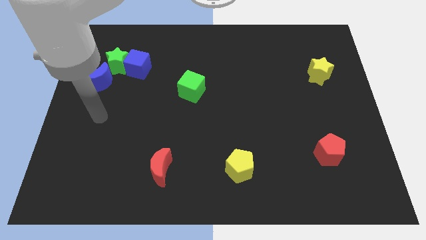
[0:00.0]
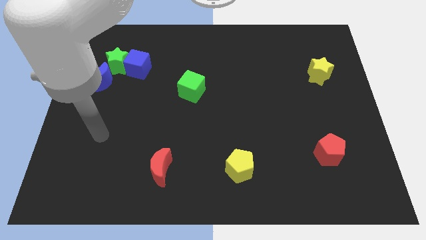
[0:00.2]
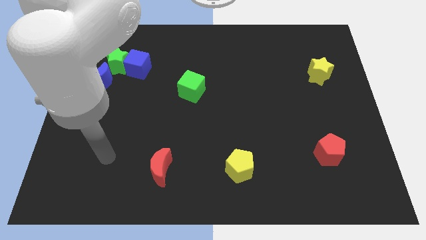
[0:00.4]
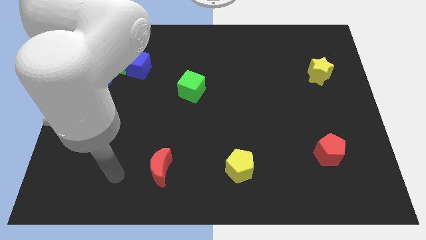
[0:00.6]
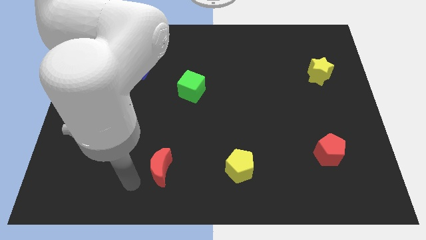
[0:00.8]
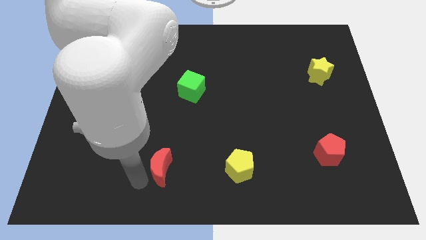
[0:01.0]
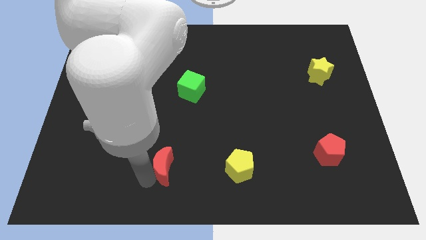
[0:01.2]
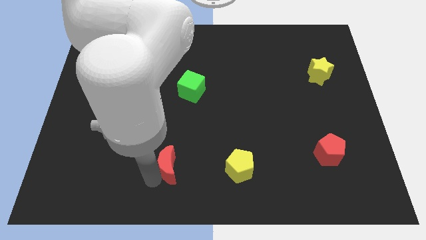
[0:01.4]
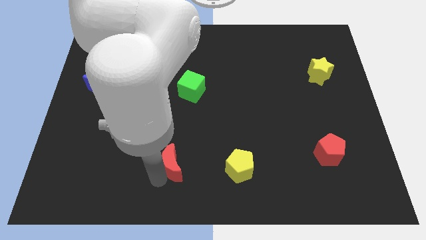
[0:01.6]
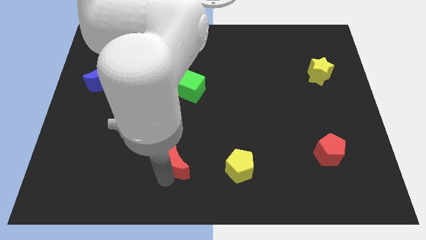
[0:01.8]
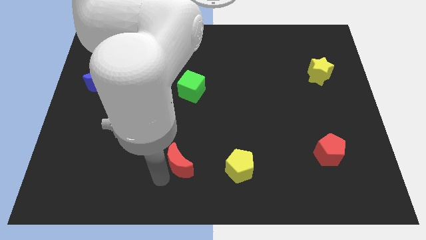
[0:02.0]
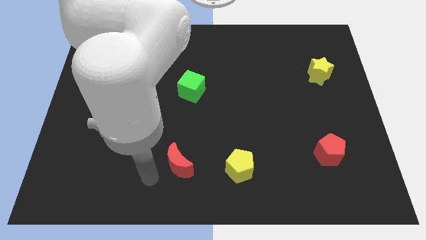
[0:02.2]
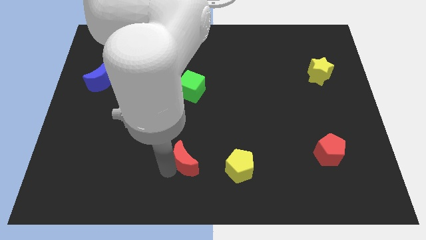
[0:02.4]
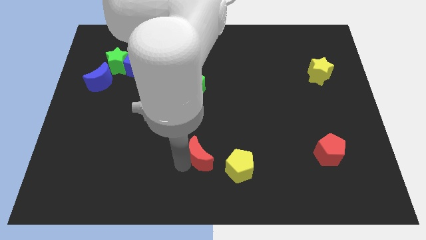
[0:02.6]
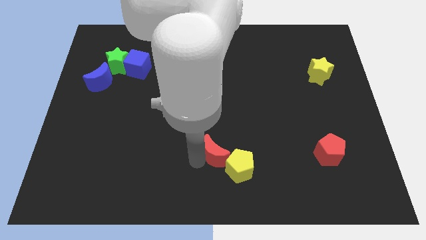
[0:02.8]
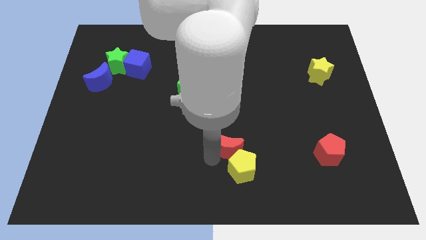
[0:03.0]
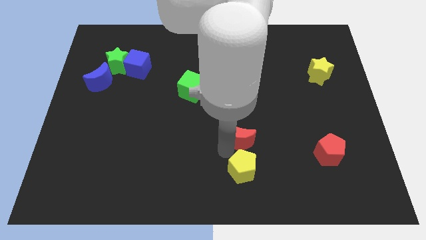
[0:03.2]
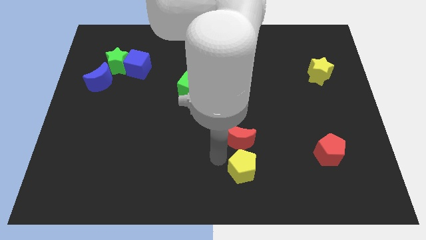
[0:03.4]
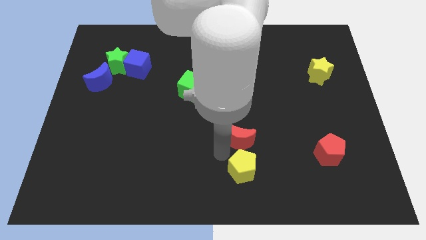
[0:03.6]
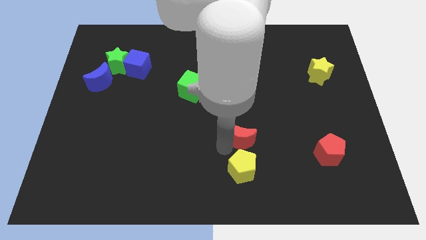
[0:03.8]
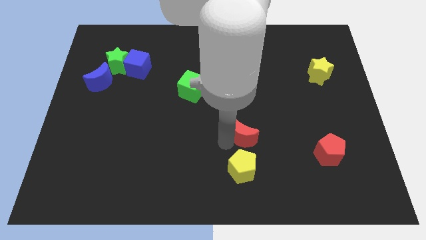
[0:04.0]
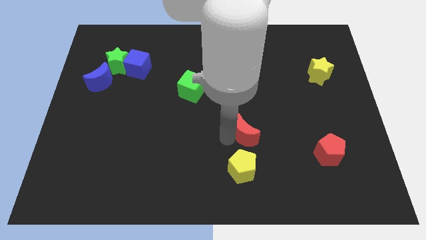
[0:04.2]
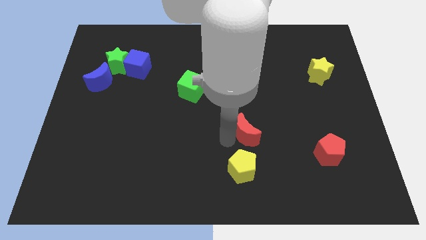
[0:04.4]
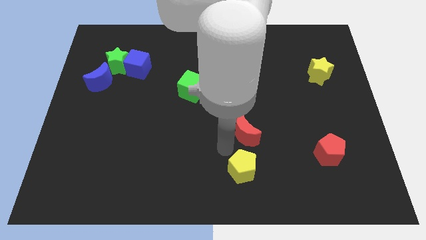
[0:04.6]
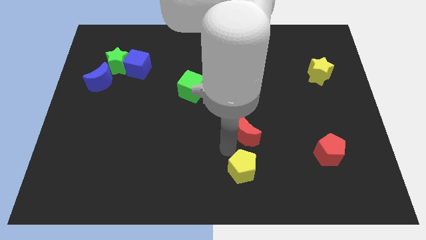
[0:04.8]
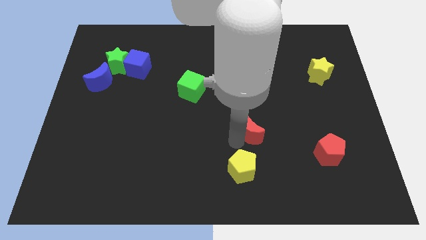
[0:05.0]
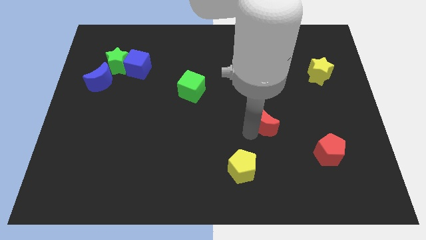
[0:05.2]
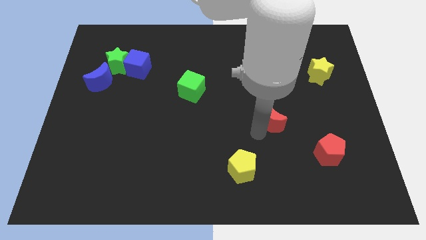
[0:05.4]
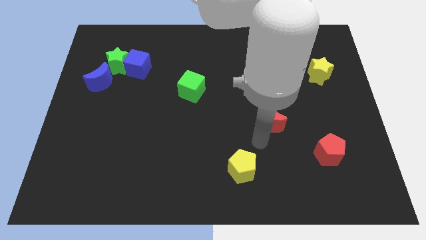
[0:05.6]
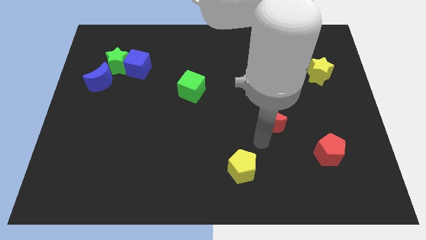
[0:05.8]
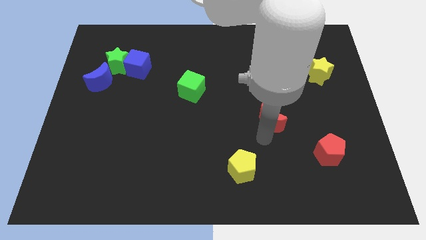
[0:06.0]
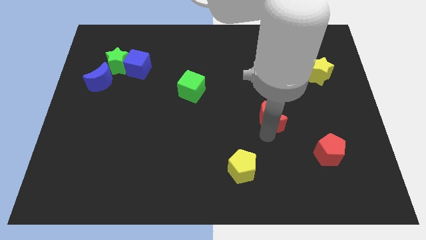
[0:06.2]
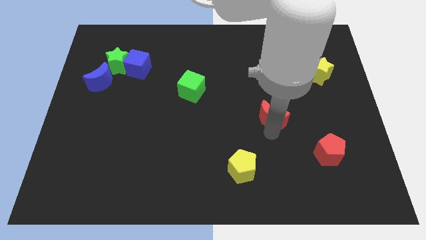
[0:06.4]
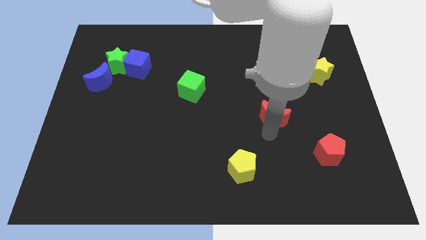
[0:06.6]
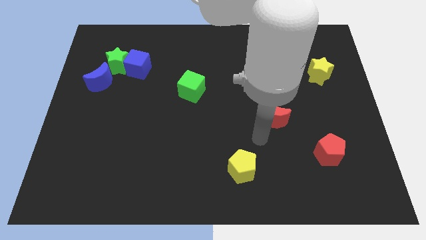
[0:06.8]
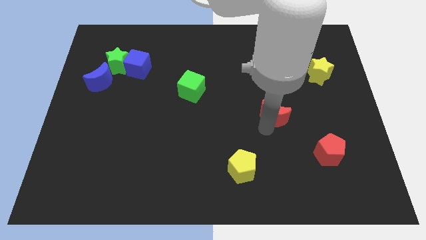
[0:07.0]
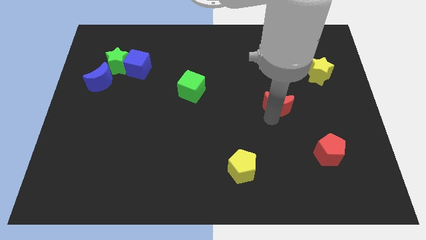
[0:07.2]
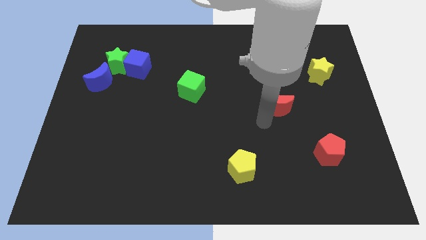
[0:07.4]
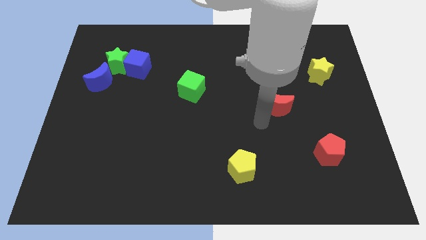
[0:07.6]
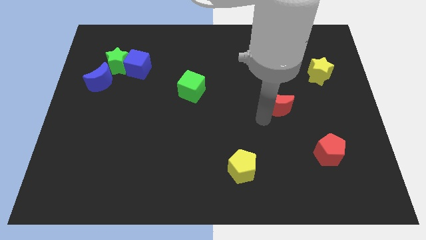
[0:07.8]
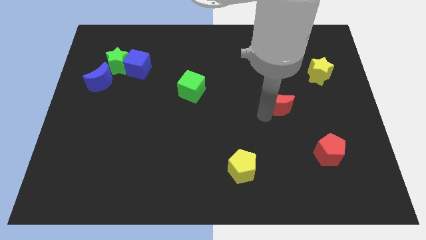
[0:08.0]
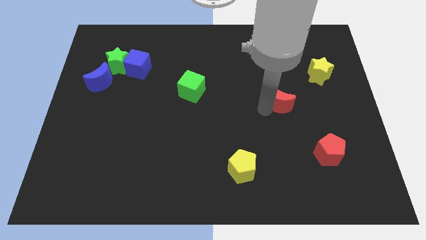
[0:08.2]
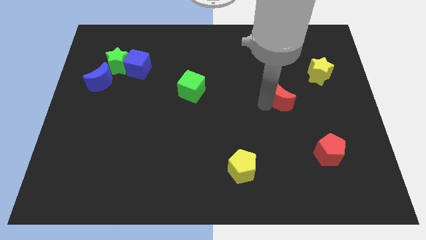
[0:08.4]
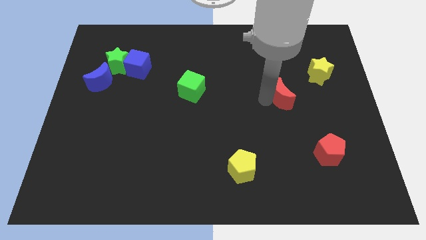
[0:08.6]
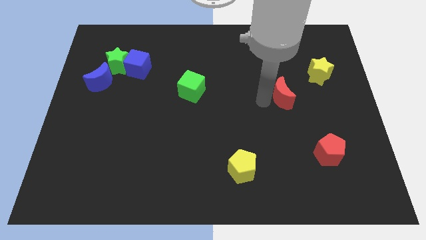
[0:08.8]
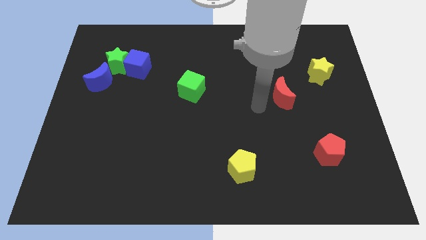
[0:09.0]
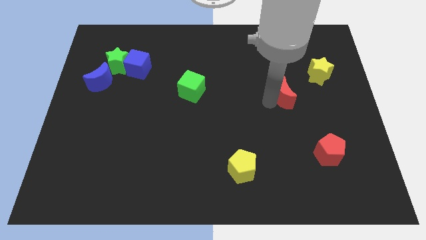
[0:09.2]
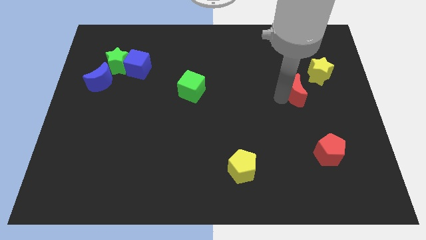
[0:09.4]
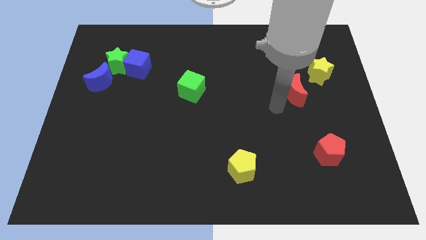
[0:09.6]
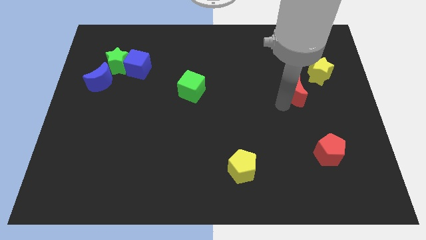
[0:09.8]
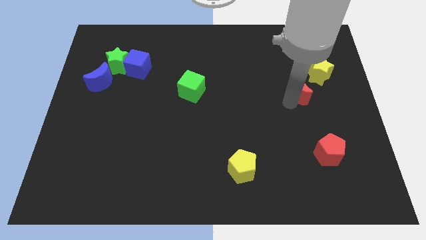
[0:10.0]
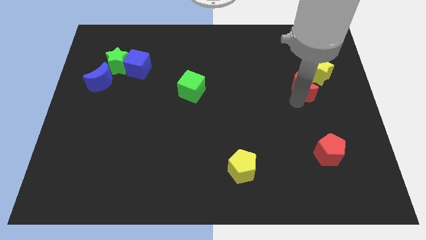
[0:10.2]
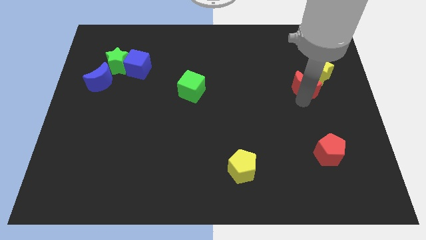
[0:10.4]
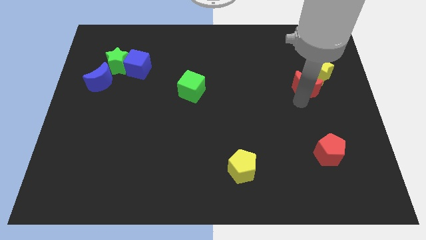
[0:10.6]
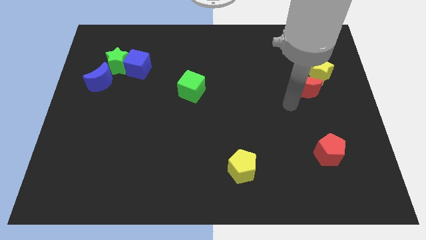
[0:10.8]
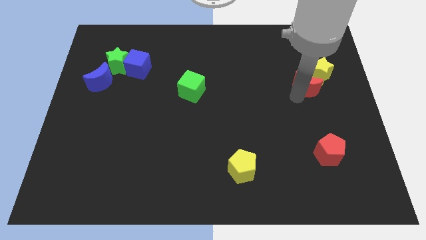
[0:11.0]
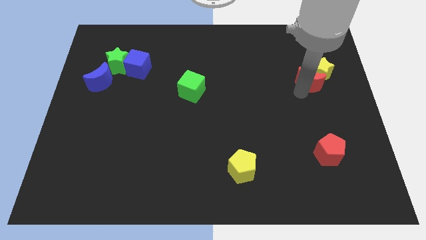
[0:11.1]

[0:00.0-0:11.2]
put the red moon close to the yellow star

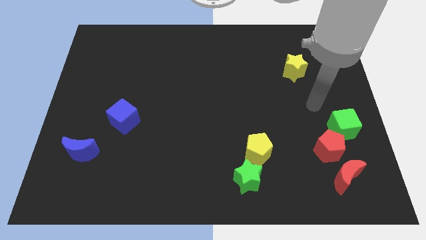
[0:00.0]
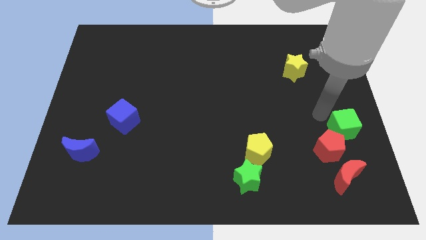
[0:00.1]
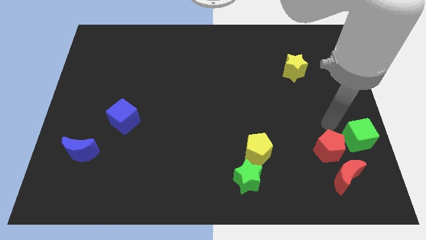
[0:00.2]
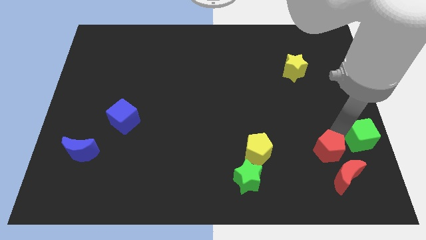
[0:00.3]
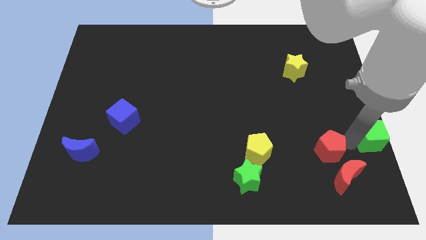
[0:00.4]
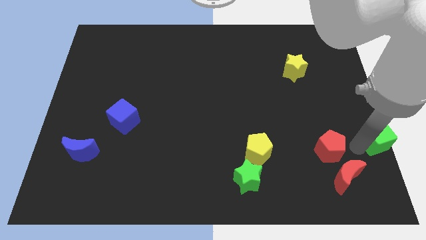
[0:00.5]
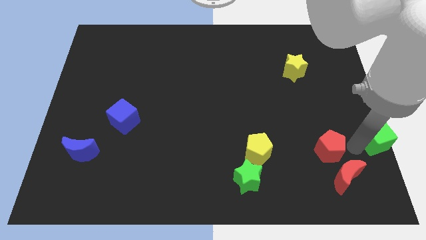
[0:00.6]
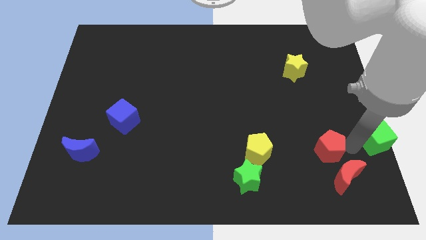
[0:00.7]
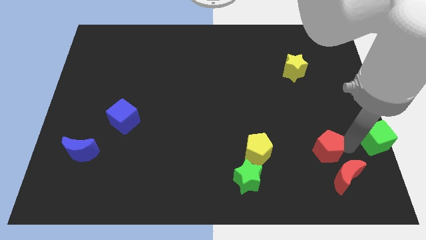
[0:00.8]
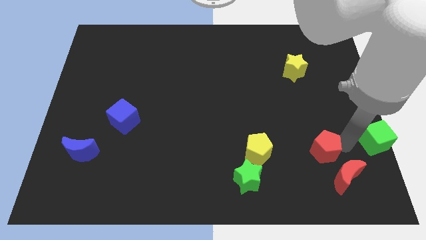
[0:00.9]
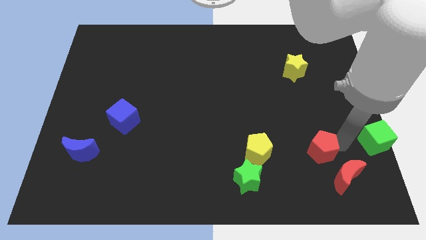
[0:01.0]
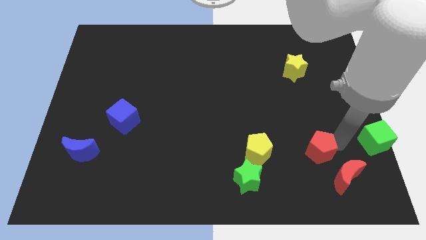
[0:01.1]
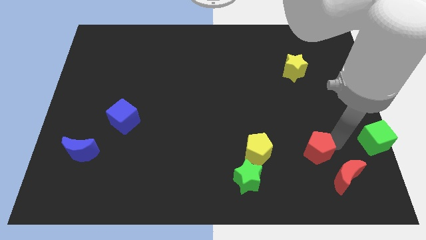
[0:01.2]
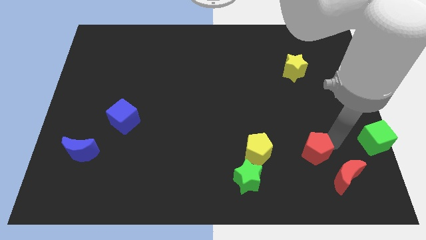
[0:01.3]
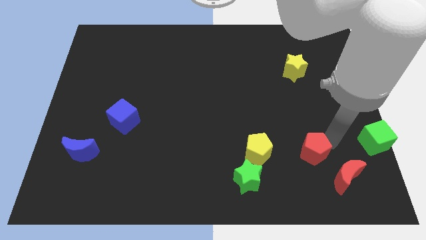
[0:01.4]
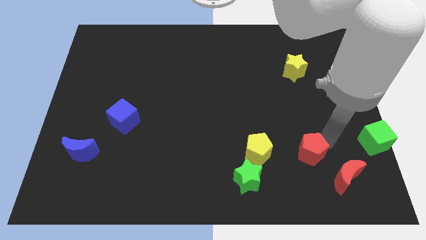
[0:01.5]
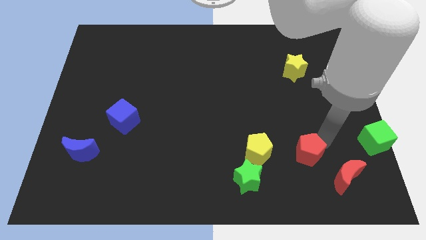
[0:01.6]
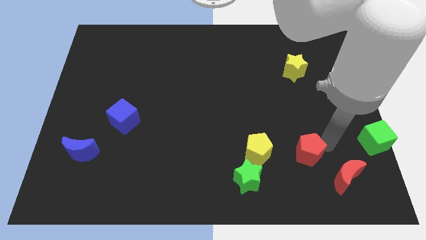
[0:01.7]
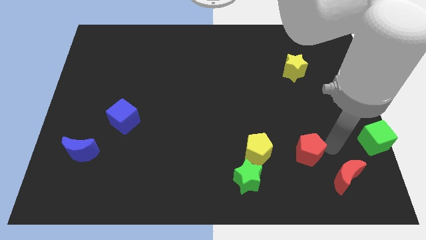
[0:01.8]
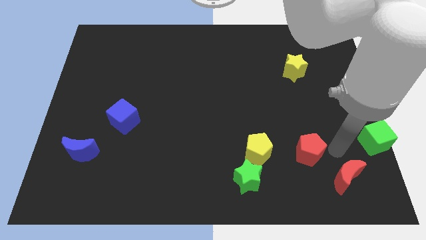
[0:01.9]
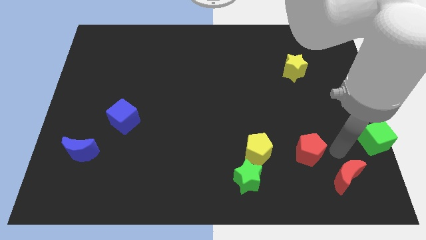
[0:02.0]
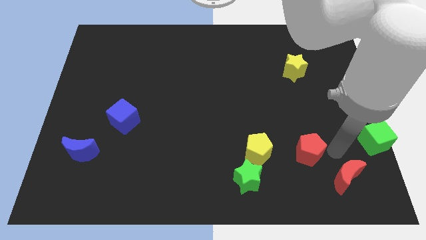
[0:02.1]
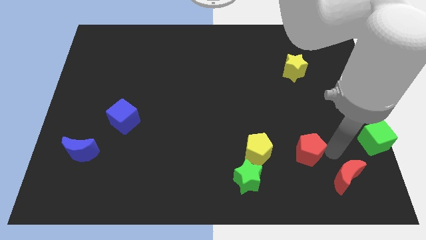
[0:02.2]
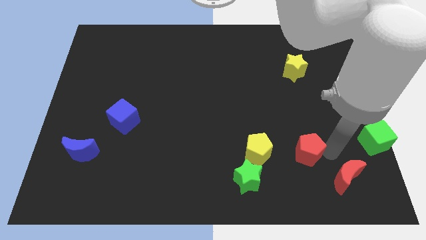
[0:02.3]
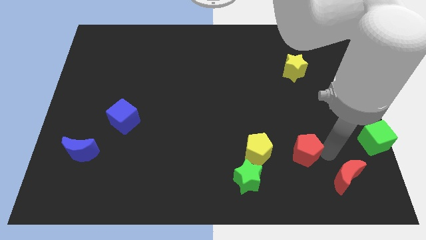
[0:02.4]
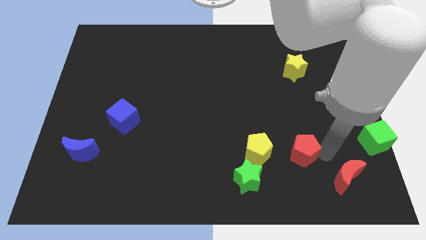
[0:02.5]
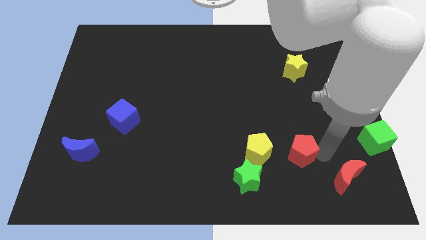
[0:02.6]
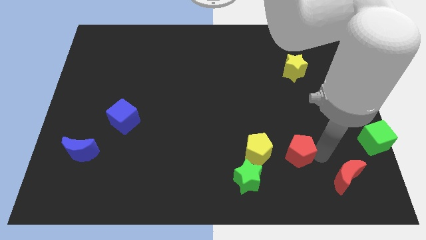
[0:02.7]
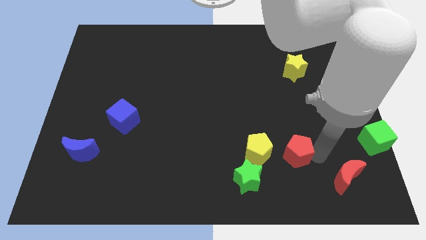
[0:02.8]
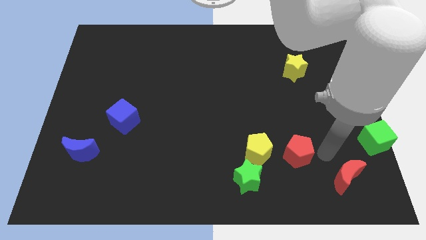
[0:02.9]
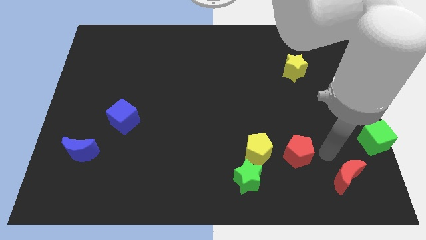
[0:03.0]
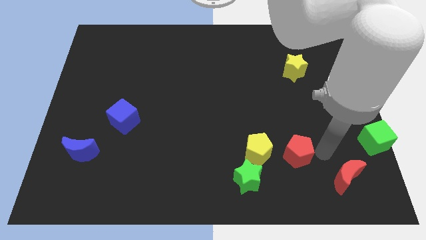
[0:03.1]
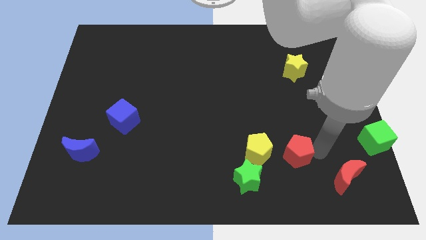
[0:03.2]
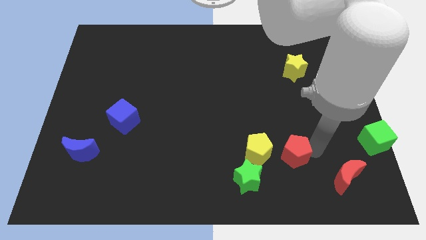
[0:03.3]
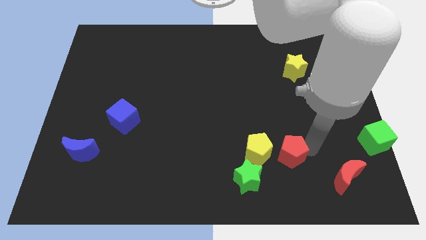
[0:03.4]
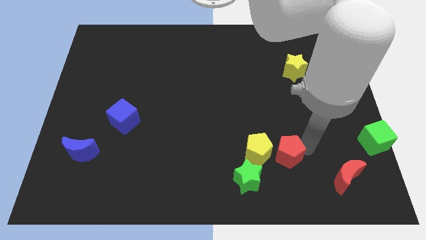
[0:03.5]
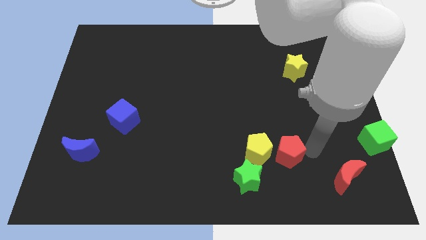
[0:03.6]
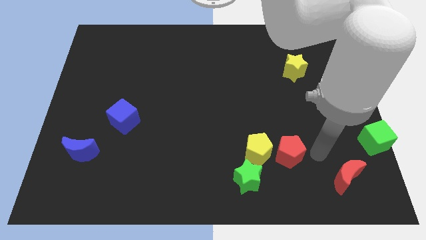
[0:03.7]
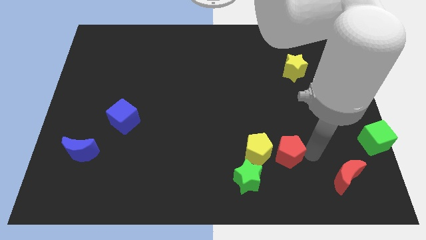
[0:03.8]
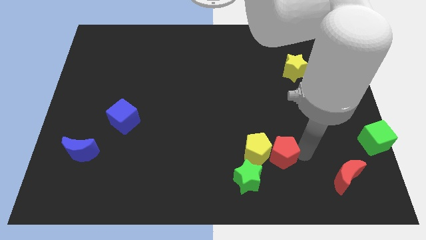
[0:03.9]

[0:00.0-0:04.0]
move the red pentagon to the yellow pentagon
